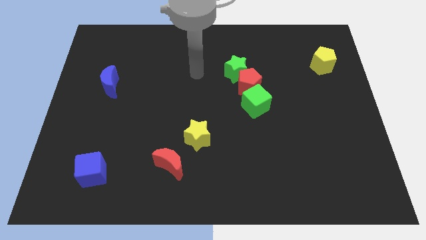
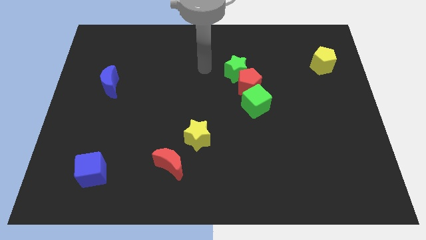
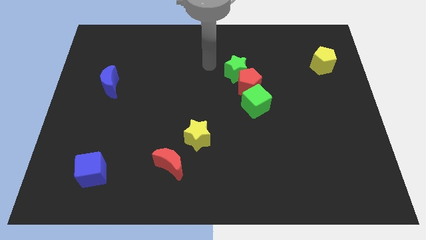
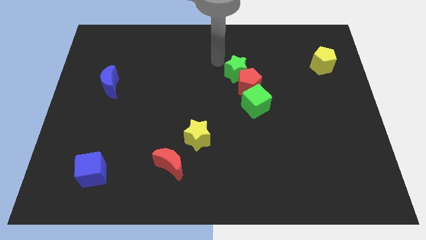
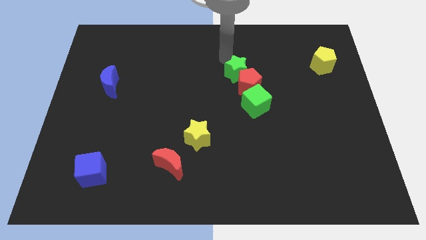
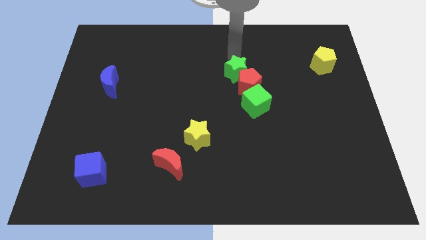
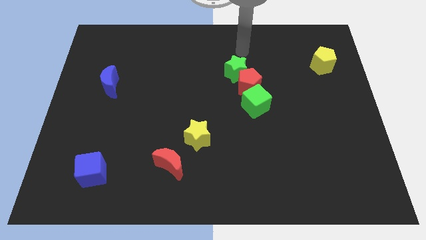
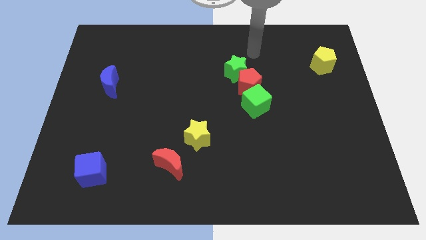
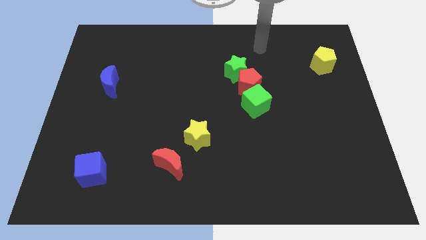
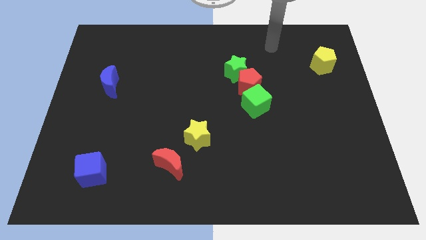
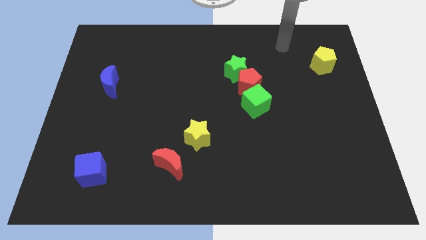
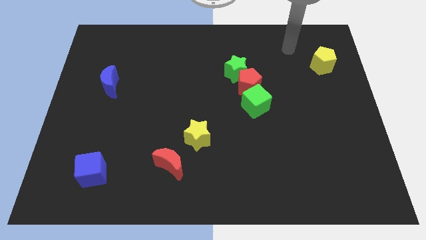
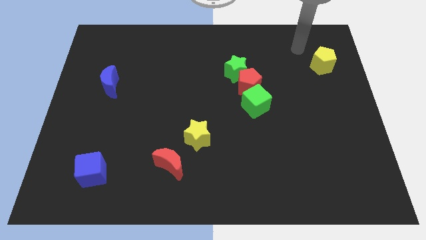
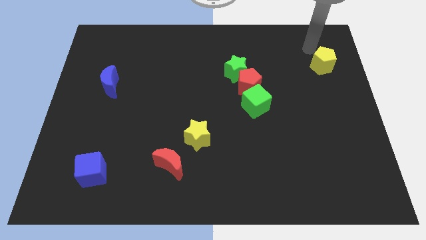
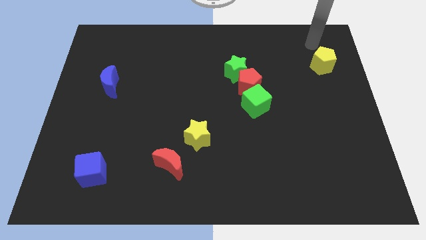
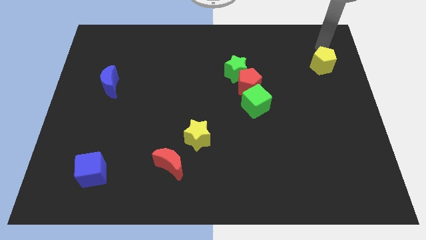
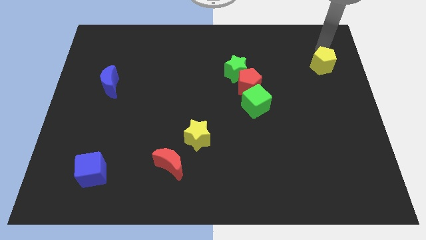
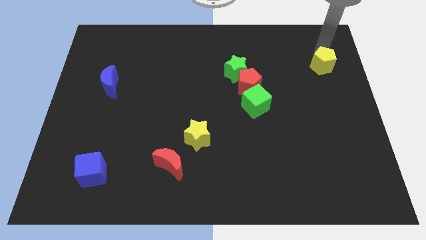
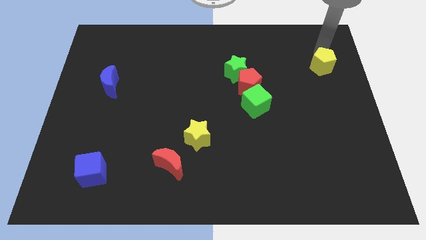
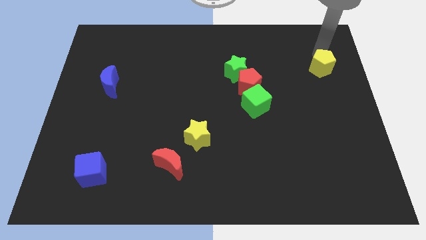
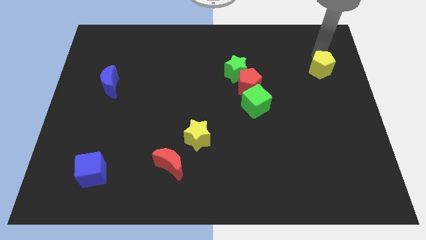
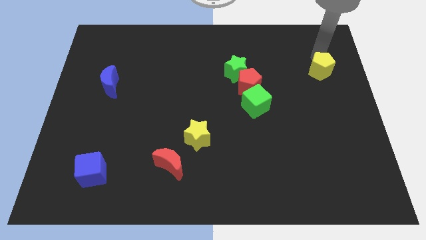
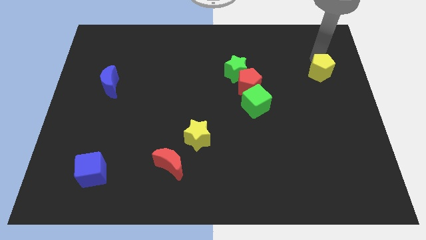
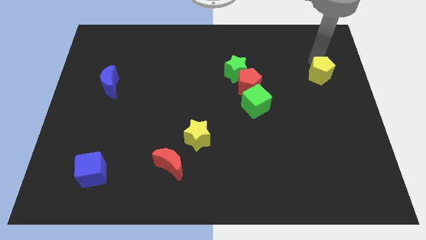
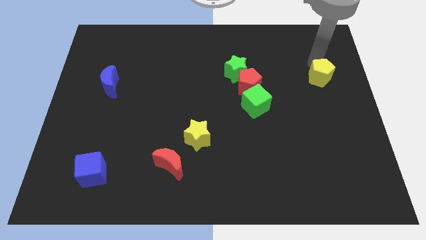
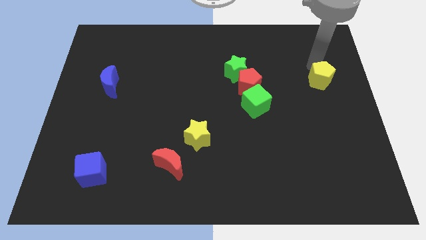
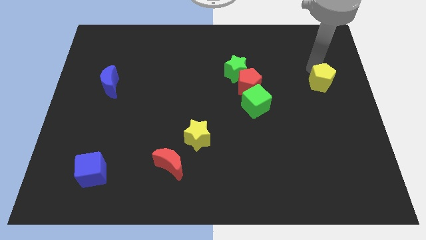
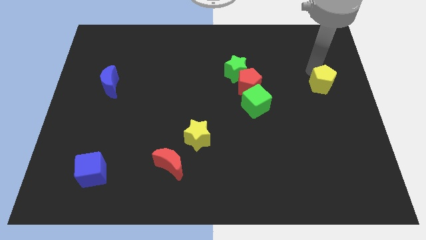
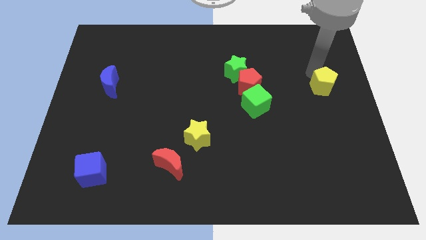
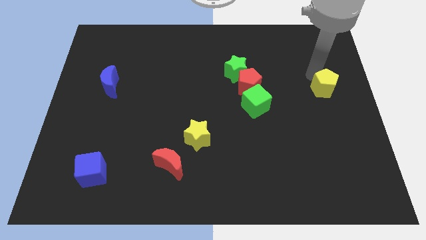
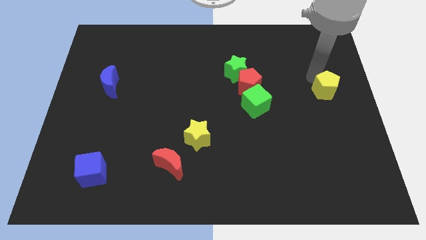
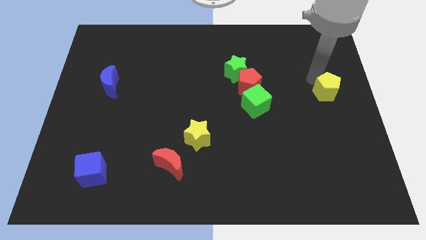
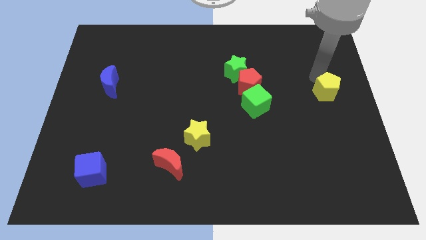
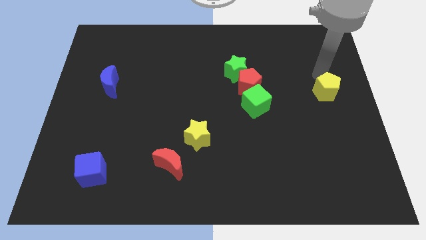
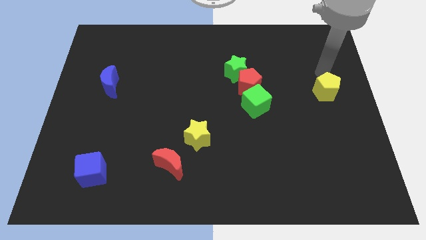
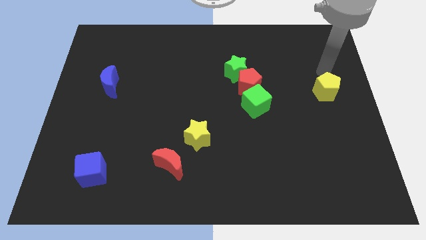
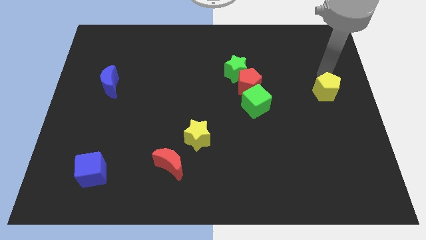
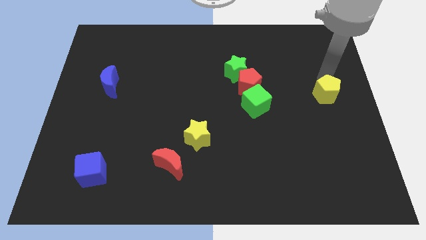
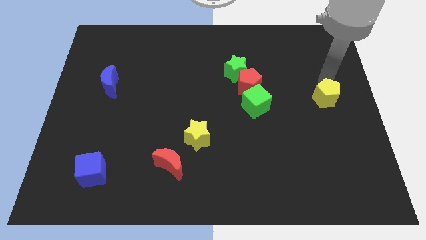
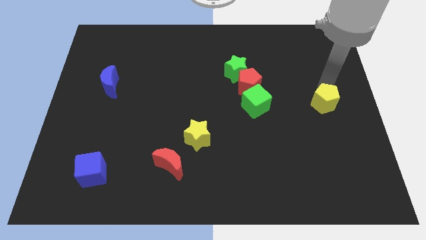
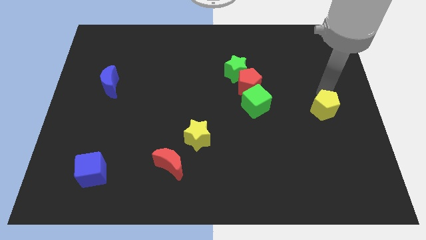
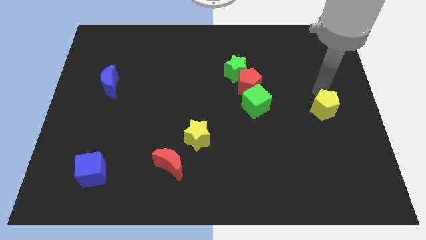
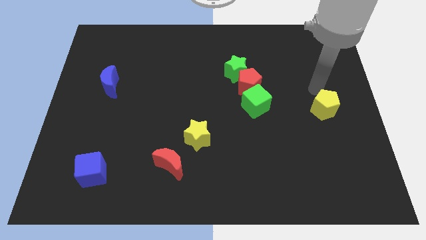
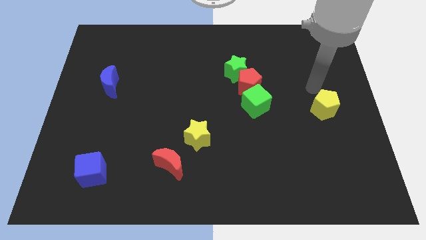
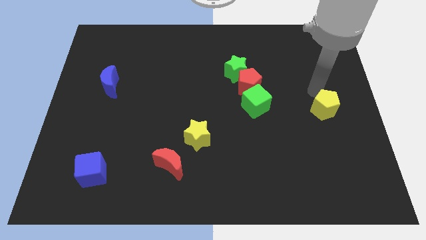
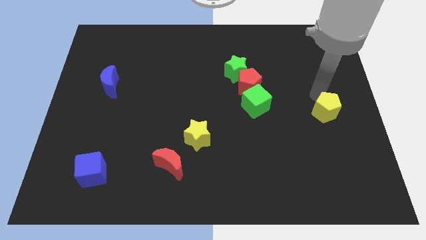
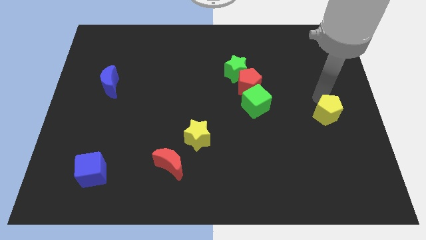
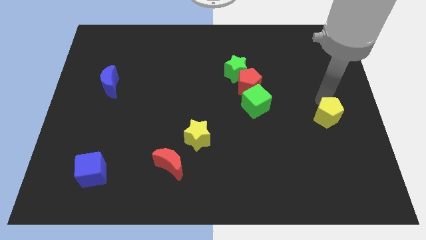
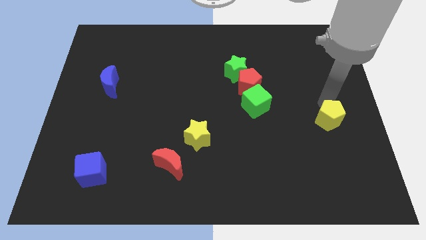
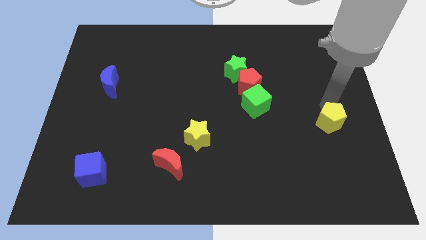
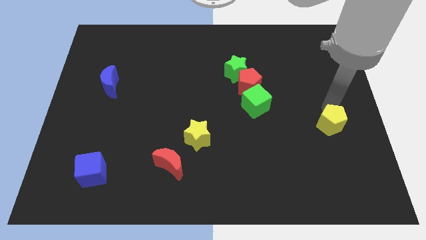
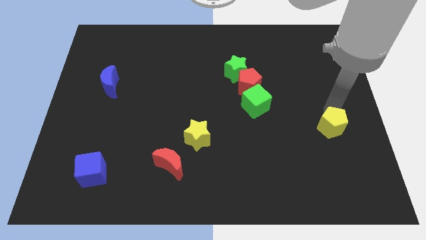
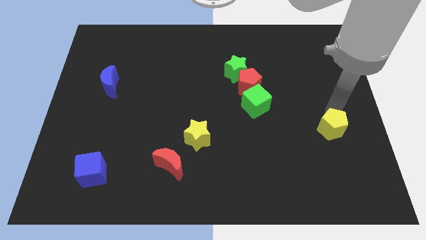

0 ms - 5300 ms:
move the yellow pentagon downwards

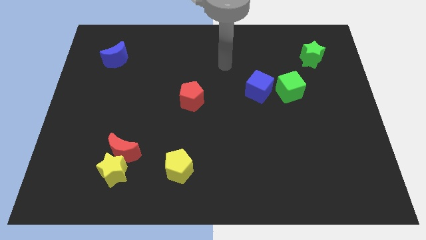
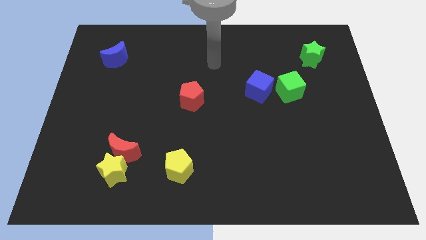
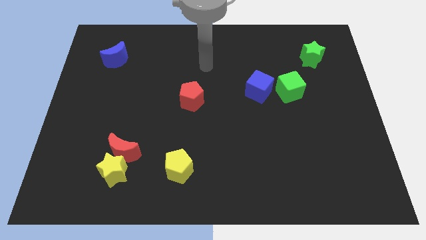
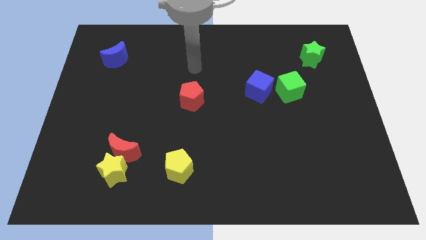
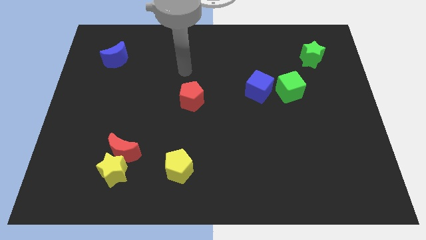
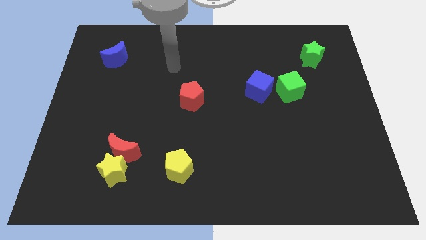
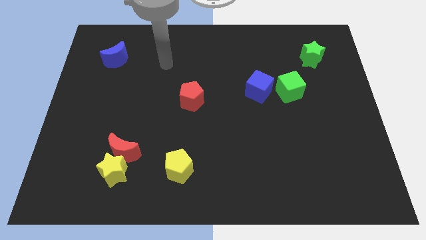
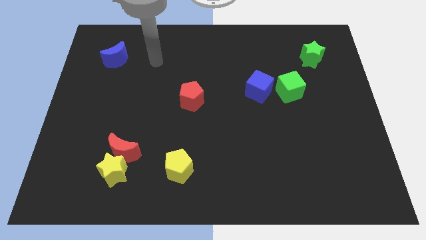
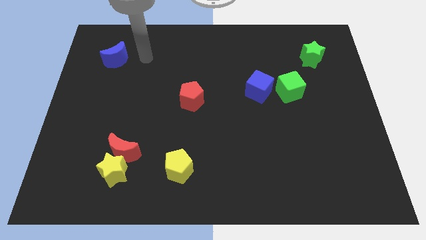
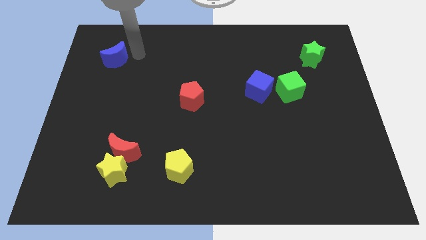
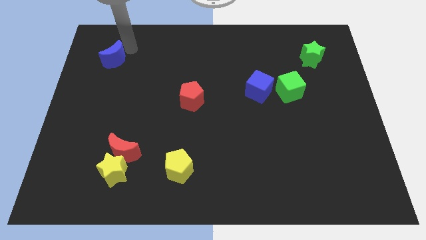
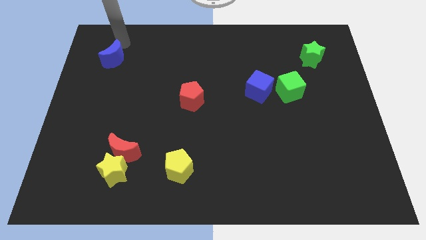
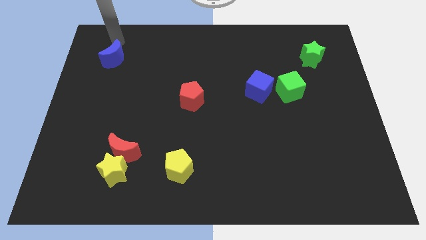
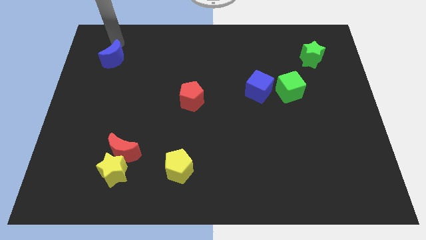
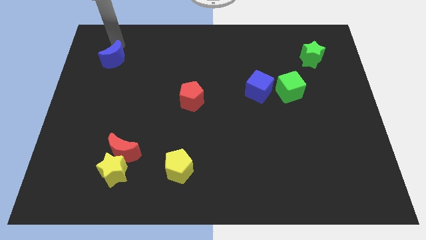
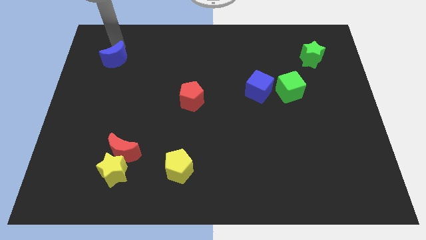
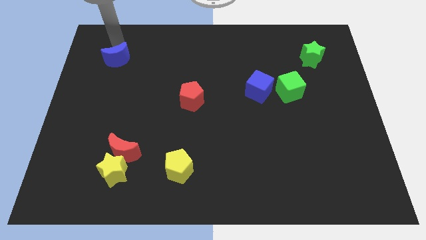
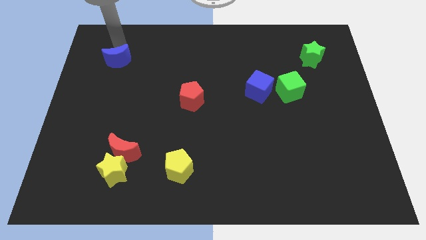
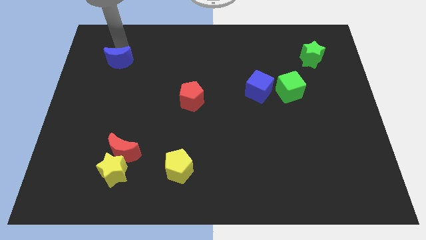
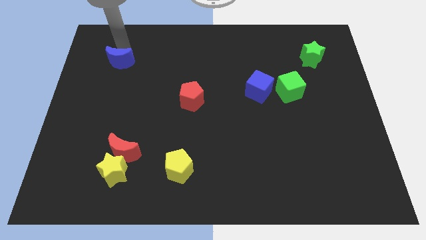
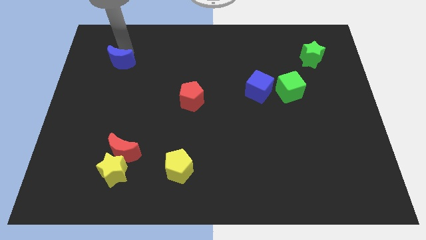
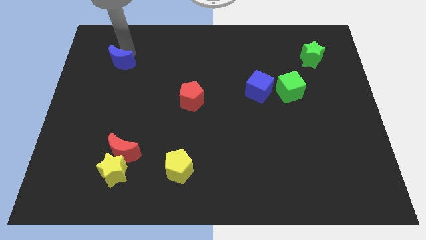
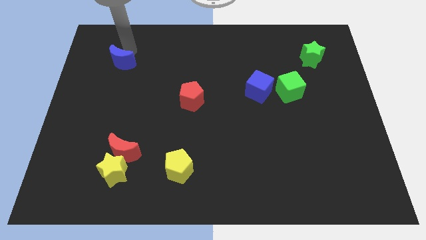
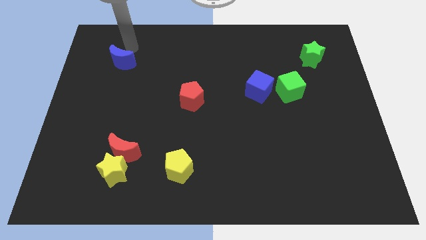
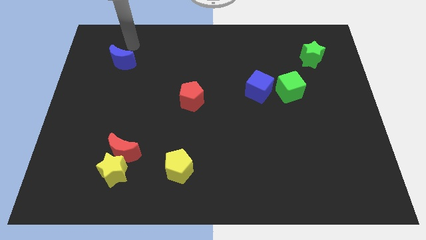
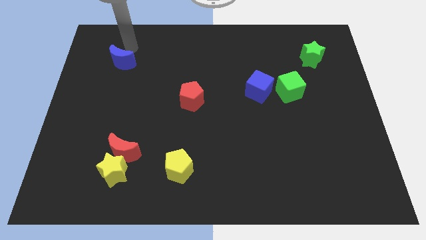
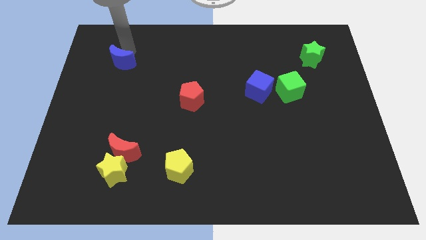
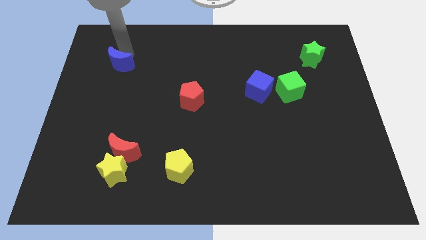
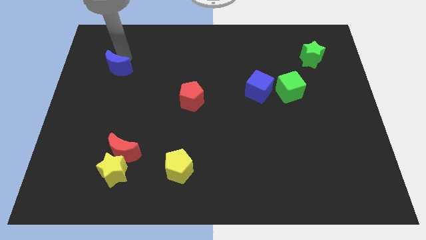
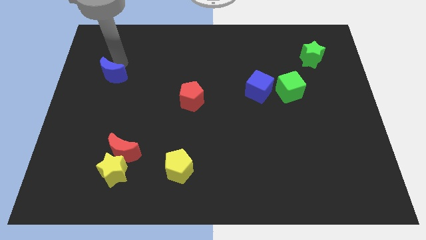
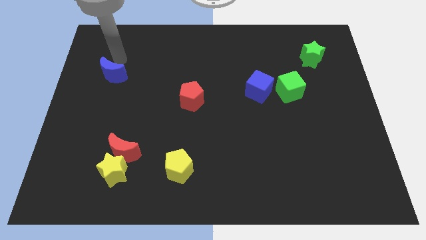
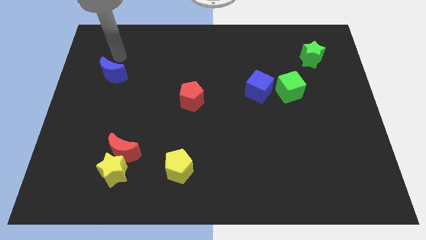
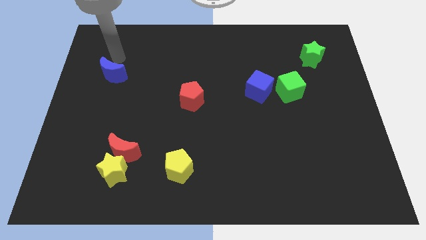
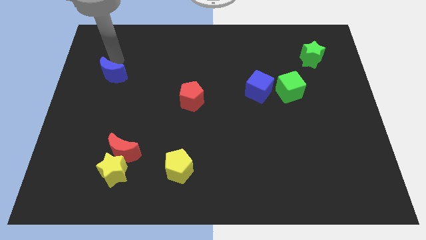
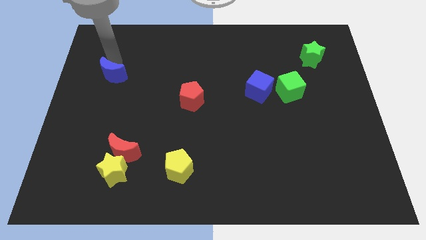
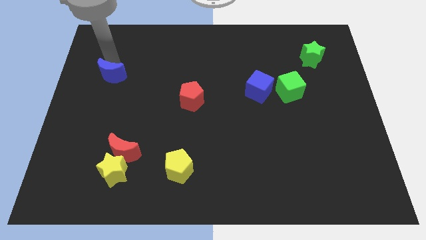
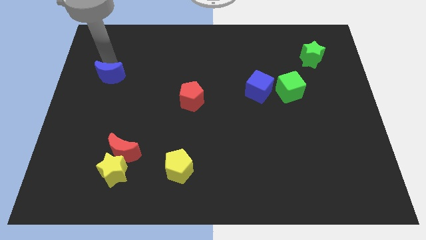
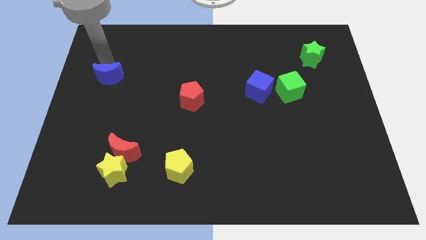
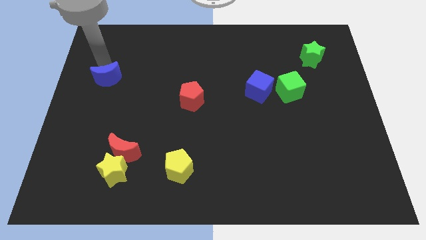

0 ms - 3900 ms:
slightly slide the blue moon downwards
